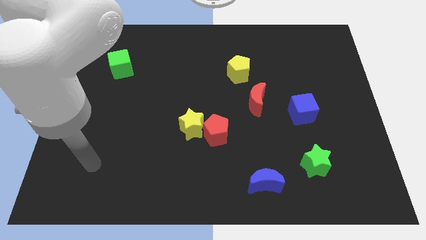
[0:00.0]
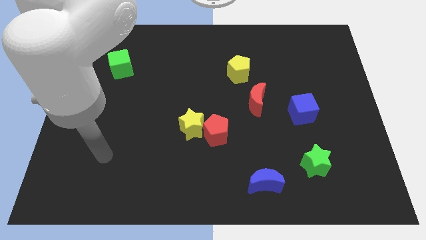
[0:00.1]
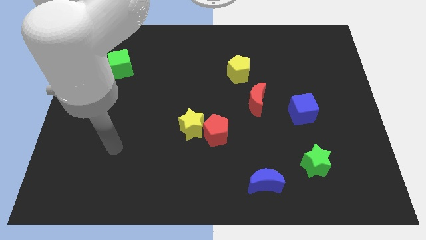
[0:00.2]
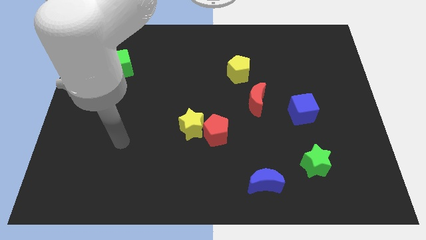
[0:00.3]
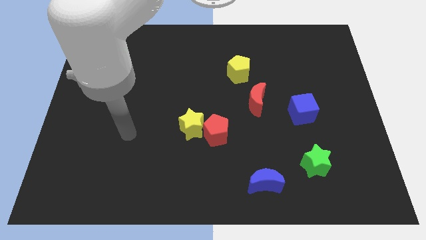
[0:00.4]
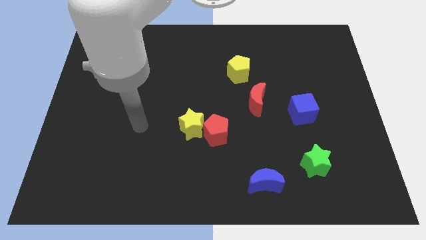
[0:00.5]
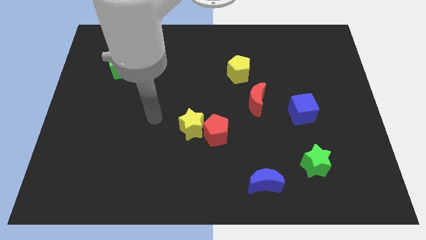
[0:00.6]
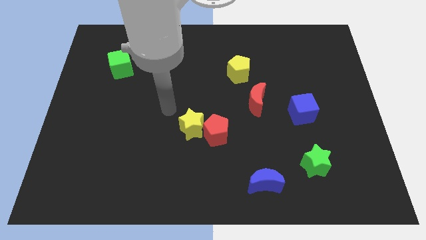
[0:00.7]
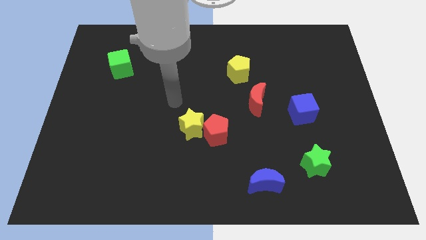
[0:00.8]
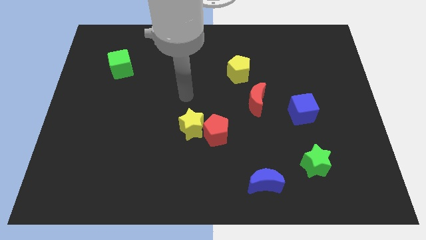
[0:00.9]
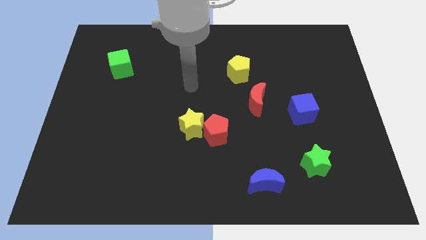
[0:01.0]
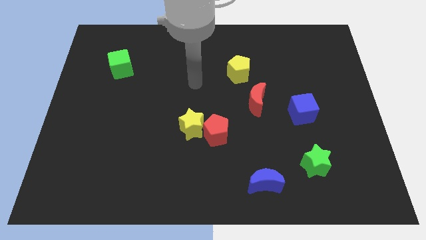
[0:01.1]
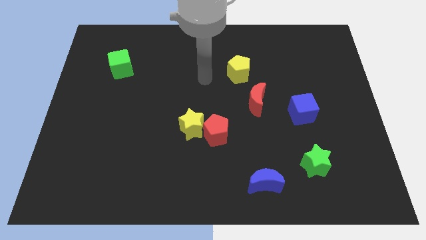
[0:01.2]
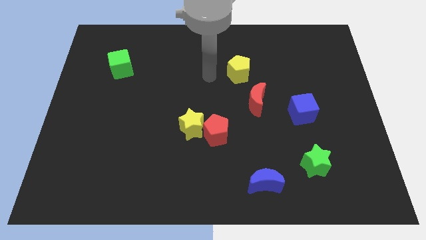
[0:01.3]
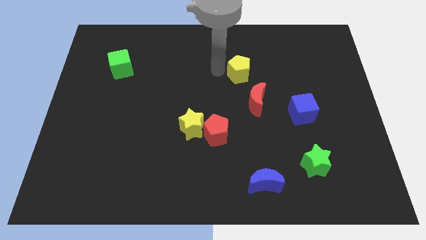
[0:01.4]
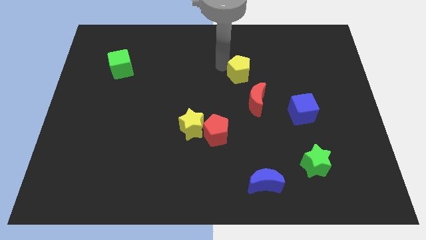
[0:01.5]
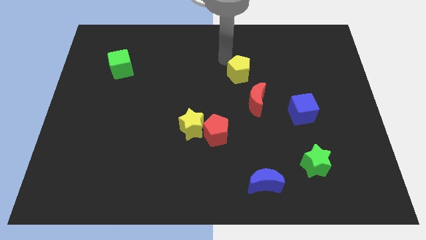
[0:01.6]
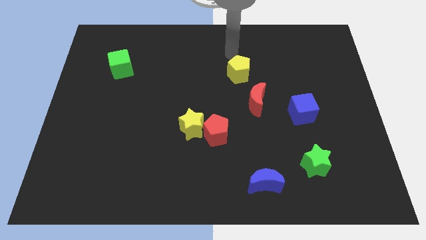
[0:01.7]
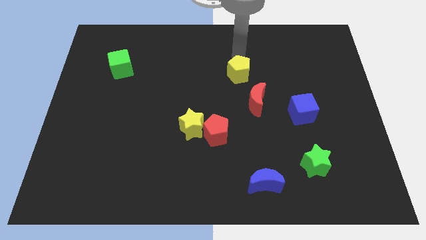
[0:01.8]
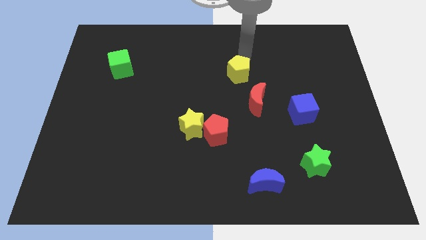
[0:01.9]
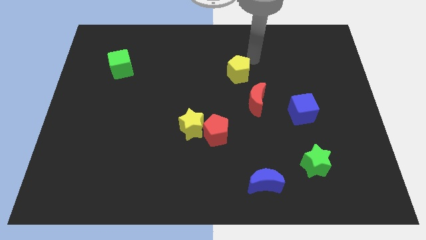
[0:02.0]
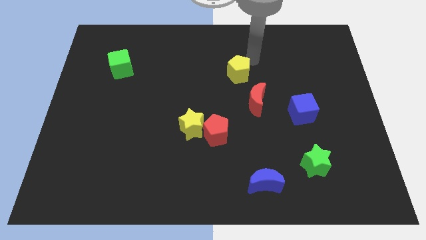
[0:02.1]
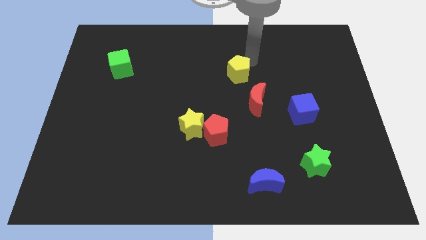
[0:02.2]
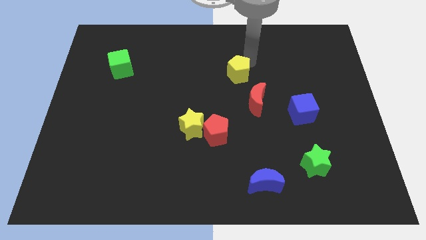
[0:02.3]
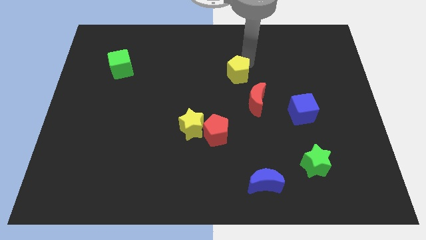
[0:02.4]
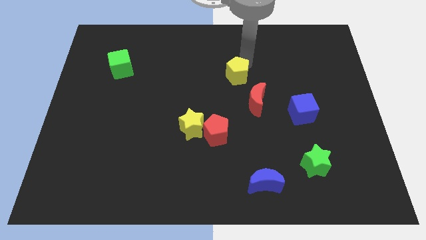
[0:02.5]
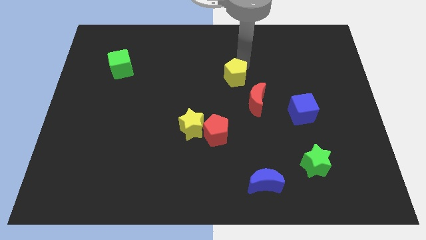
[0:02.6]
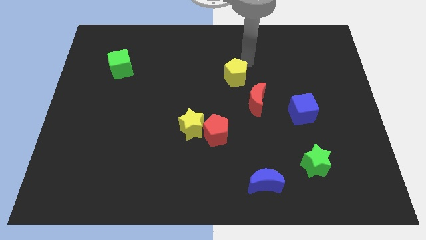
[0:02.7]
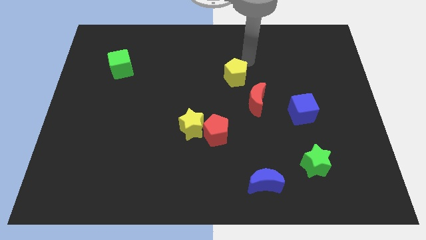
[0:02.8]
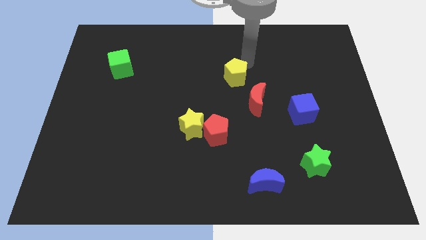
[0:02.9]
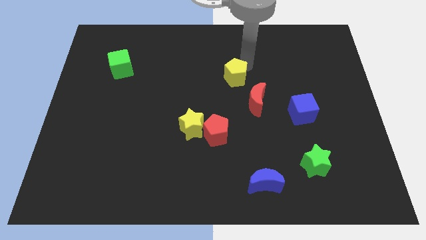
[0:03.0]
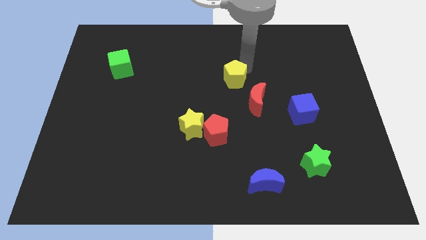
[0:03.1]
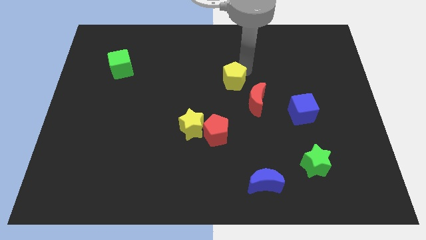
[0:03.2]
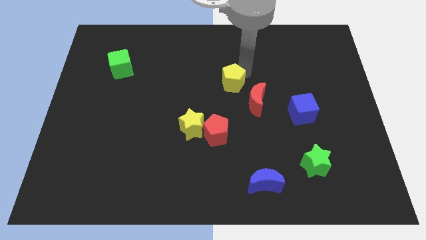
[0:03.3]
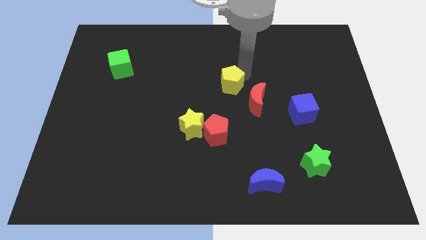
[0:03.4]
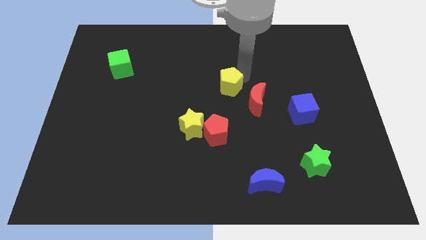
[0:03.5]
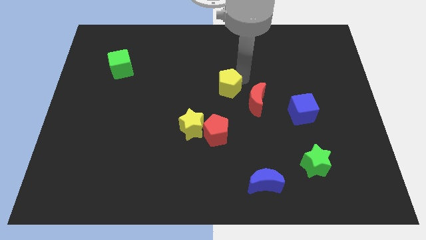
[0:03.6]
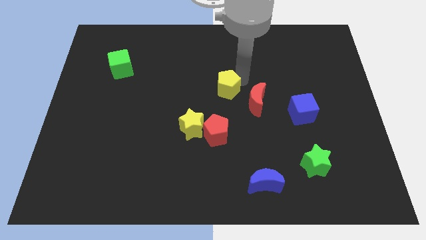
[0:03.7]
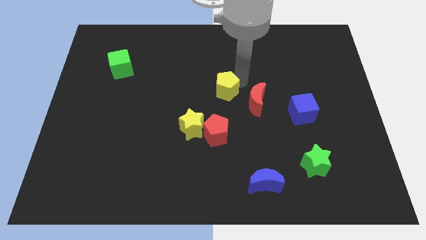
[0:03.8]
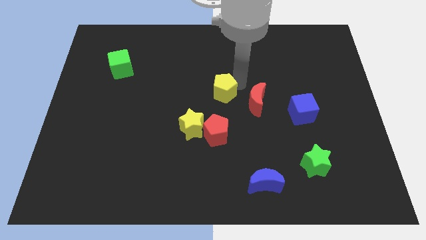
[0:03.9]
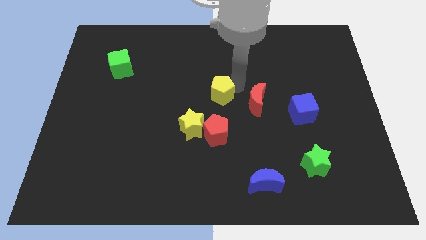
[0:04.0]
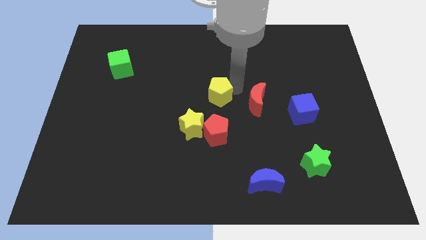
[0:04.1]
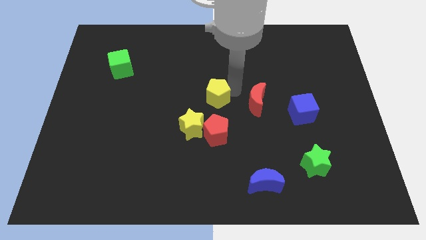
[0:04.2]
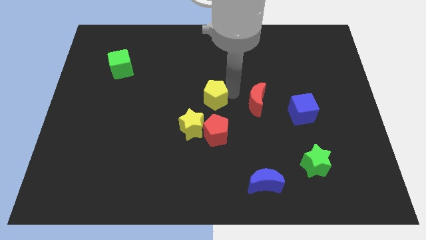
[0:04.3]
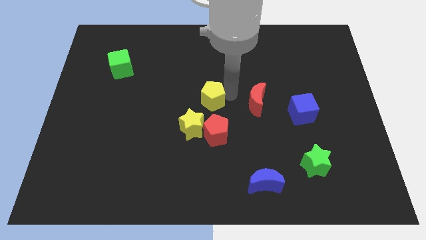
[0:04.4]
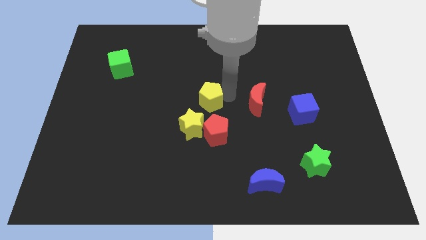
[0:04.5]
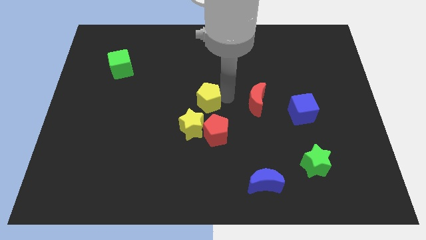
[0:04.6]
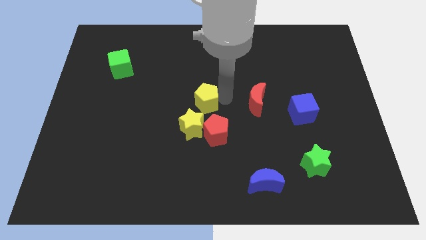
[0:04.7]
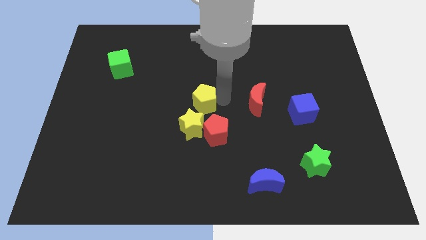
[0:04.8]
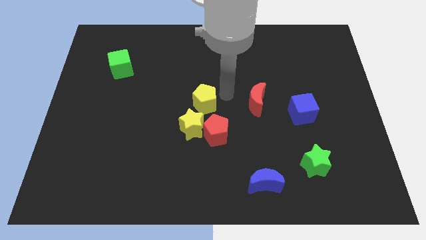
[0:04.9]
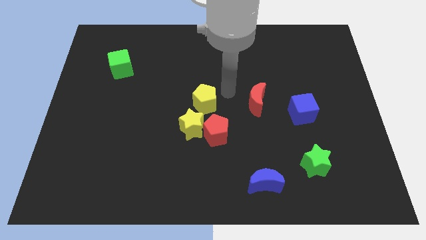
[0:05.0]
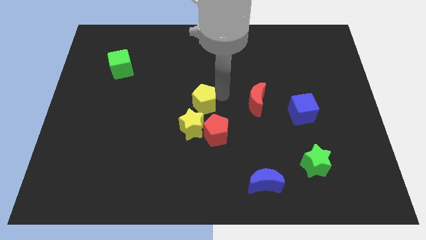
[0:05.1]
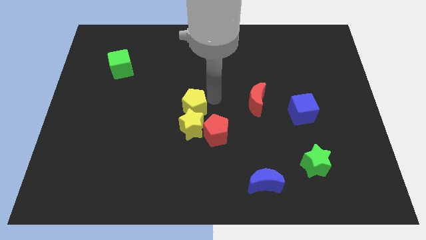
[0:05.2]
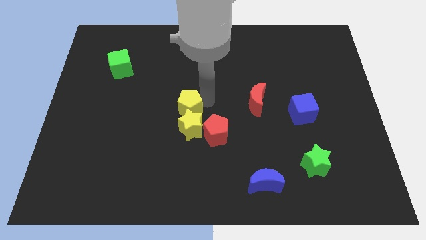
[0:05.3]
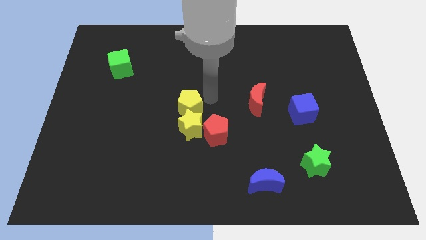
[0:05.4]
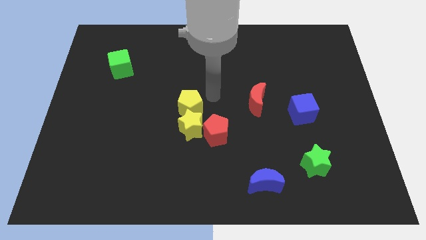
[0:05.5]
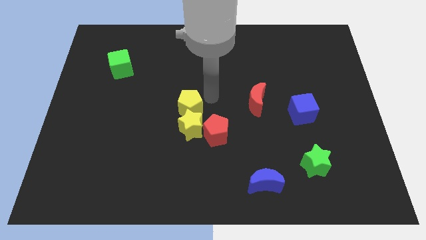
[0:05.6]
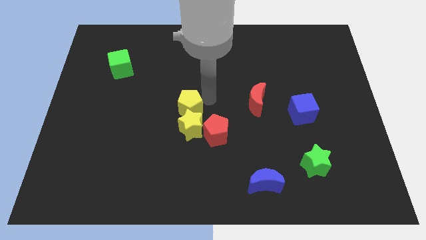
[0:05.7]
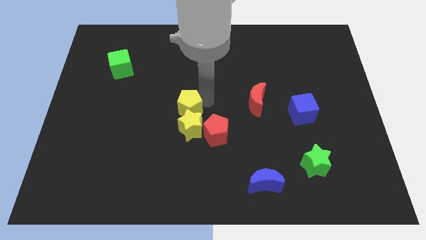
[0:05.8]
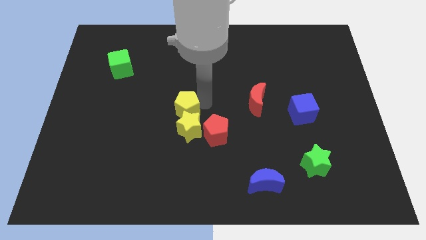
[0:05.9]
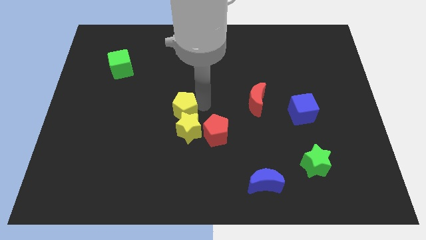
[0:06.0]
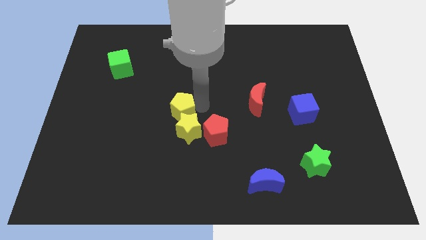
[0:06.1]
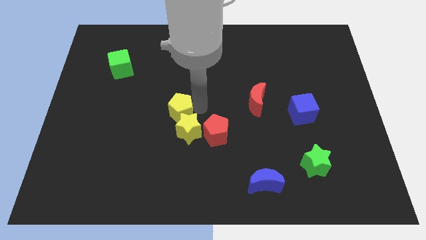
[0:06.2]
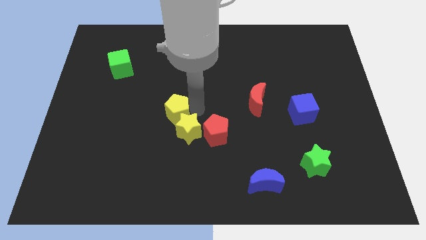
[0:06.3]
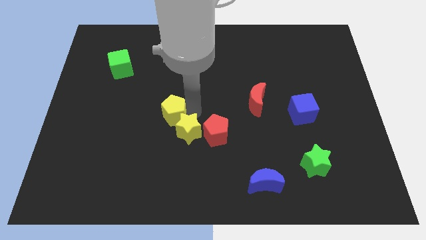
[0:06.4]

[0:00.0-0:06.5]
push the yellow pentagon left of the yellow star
